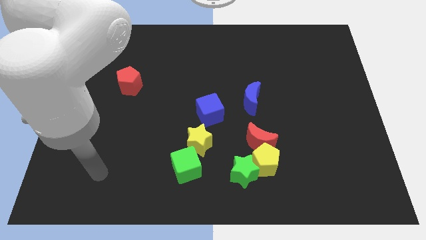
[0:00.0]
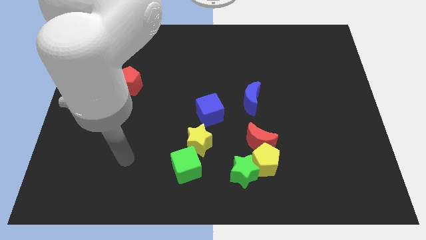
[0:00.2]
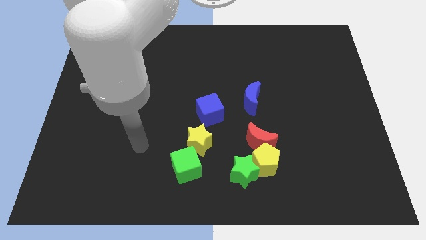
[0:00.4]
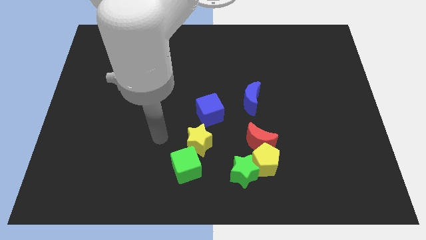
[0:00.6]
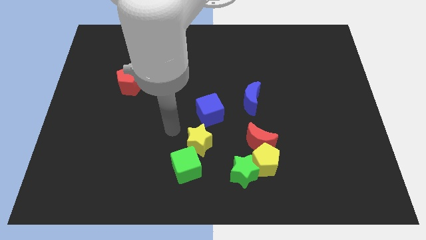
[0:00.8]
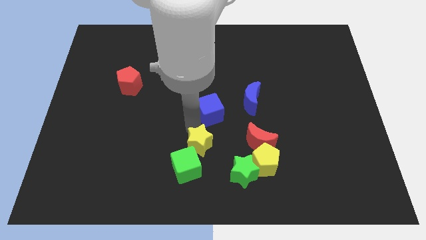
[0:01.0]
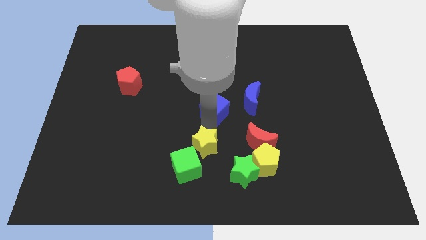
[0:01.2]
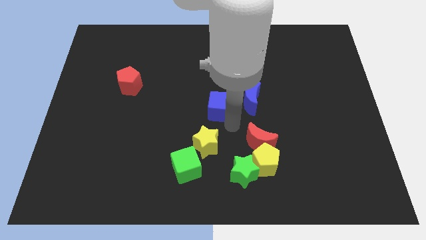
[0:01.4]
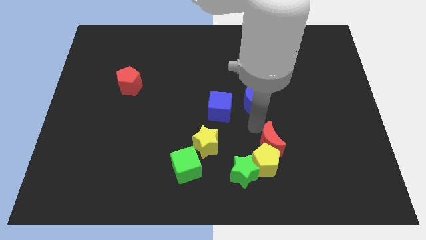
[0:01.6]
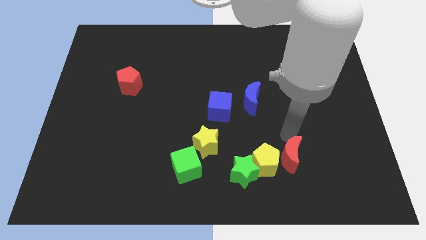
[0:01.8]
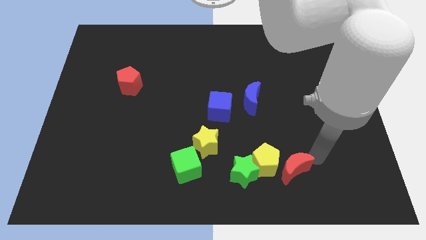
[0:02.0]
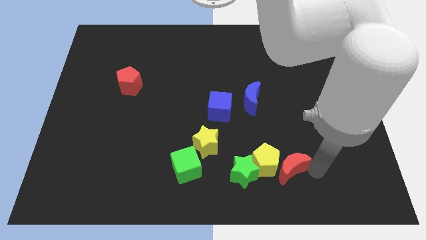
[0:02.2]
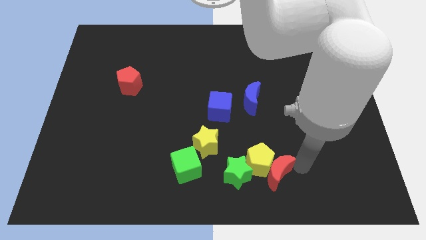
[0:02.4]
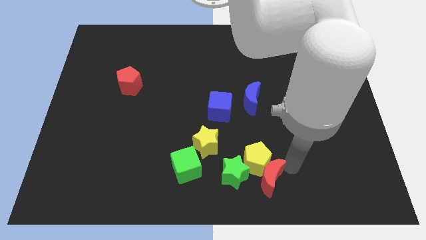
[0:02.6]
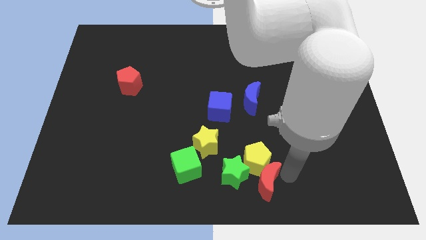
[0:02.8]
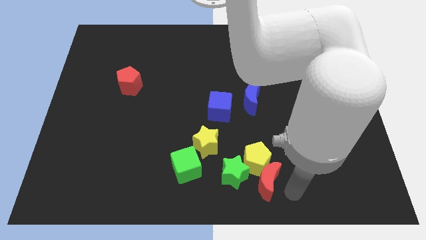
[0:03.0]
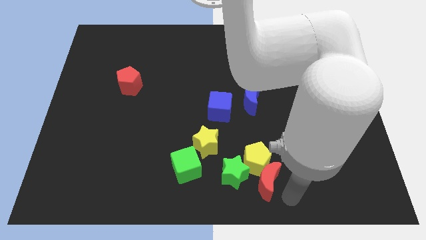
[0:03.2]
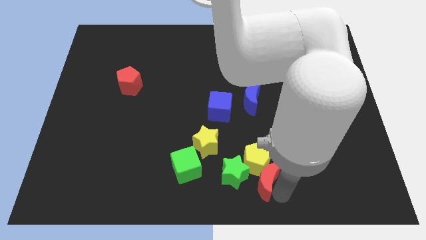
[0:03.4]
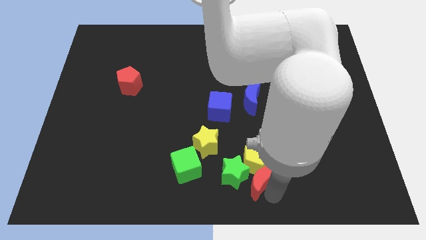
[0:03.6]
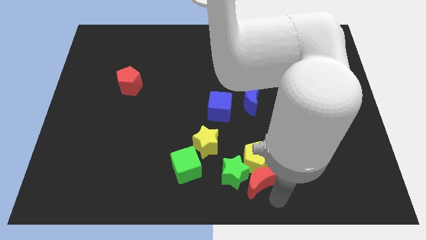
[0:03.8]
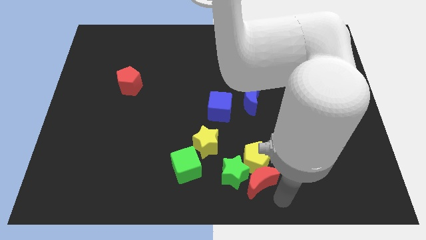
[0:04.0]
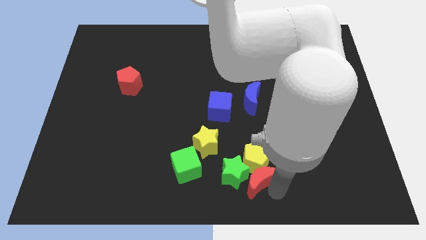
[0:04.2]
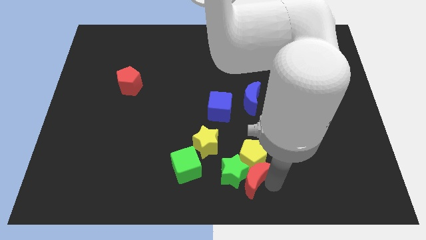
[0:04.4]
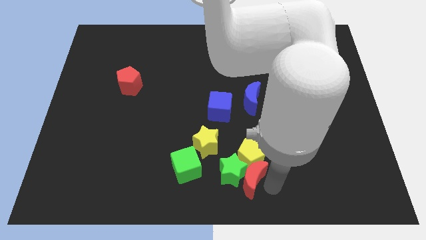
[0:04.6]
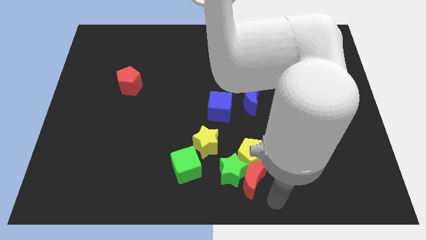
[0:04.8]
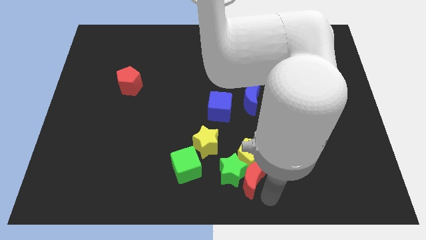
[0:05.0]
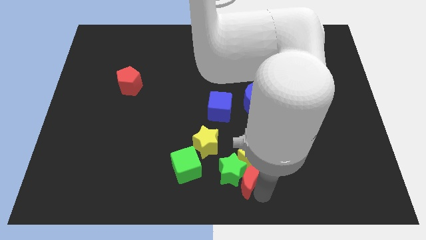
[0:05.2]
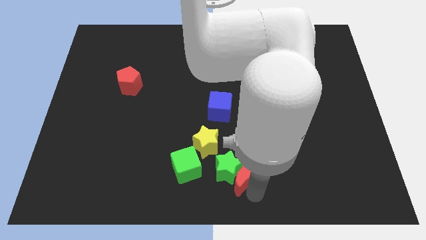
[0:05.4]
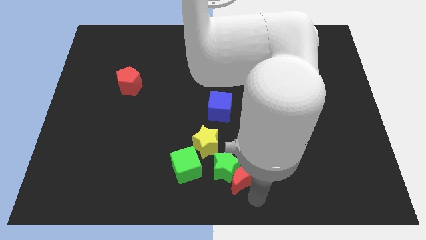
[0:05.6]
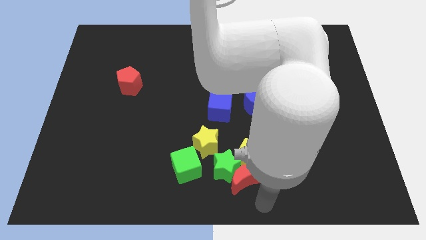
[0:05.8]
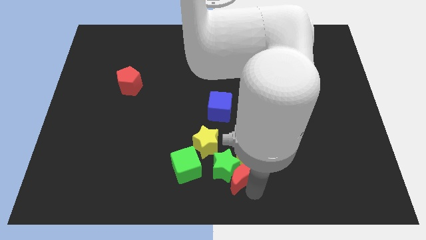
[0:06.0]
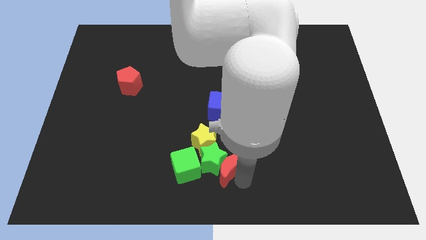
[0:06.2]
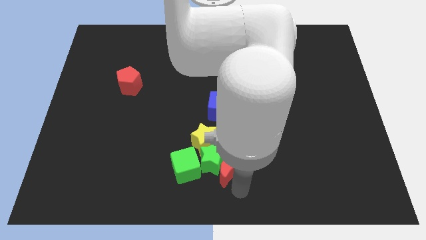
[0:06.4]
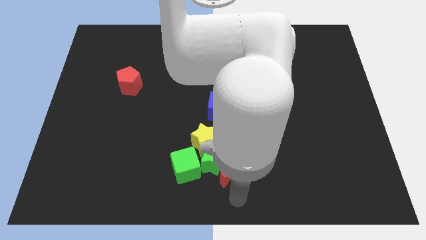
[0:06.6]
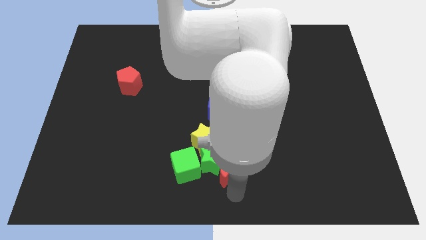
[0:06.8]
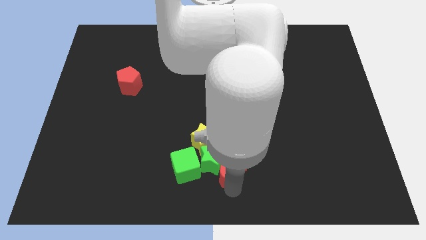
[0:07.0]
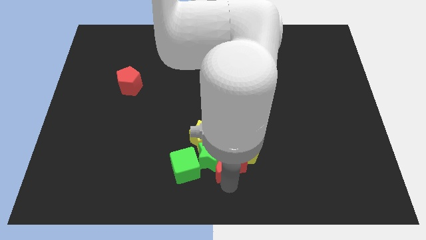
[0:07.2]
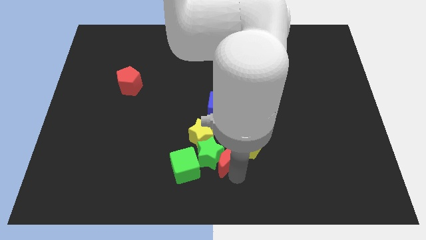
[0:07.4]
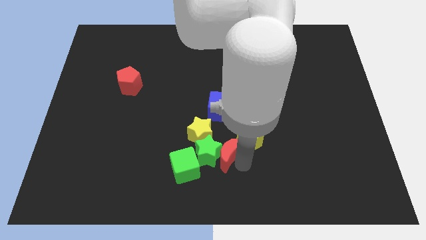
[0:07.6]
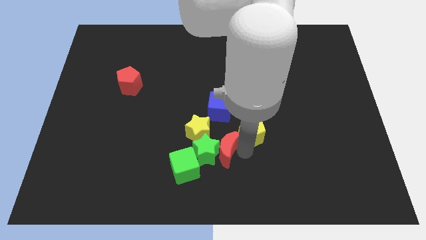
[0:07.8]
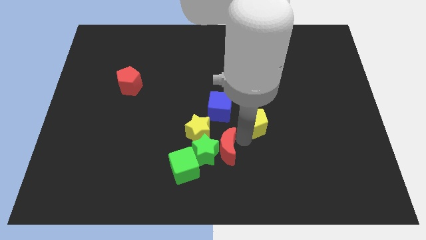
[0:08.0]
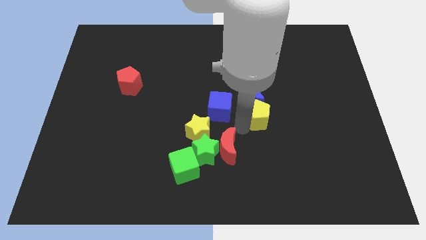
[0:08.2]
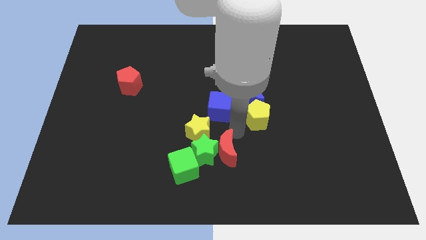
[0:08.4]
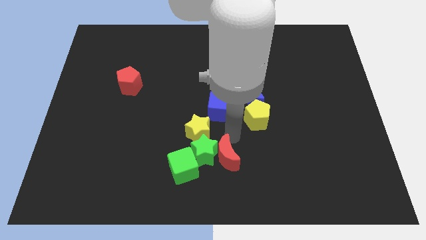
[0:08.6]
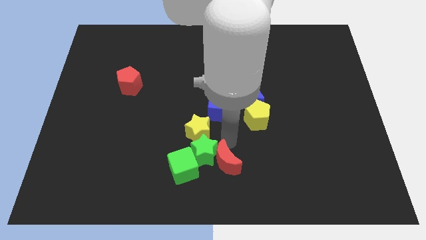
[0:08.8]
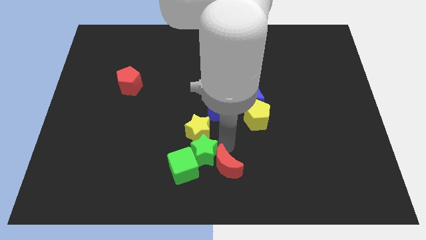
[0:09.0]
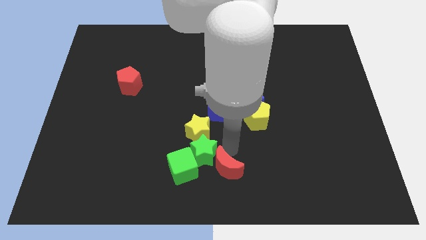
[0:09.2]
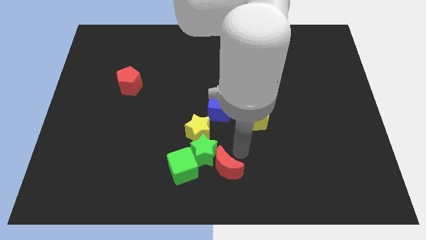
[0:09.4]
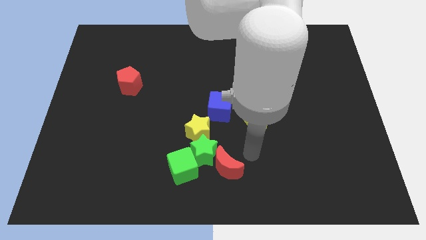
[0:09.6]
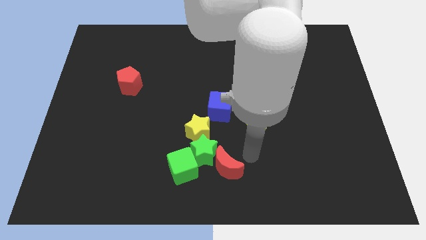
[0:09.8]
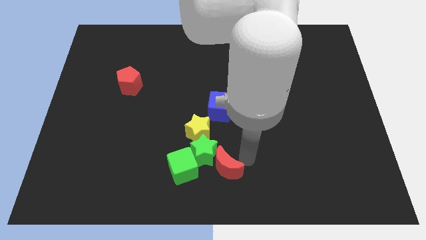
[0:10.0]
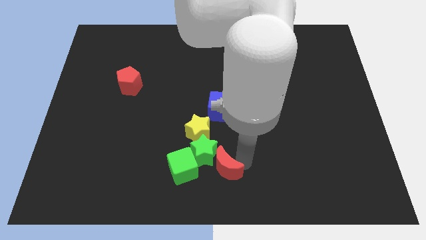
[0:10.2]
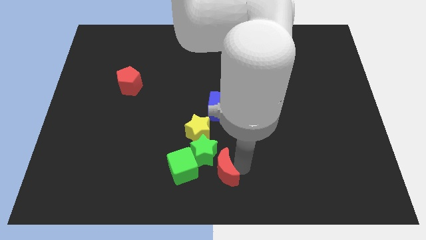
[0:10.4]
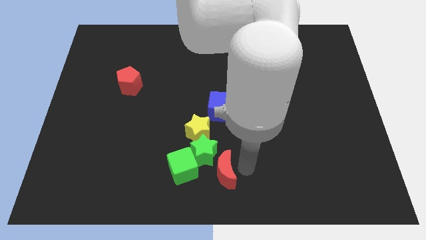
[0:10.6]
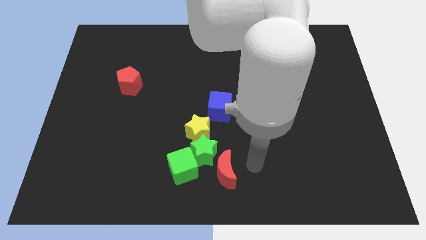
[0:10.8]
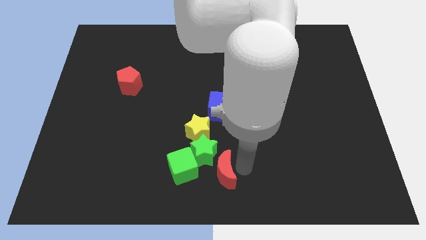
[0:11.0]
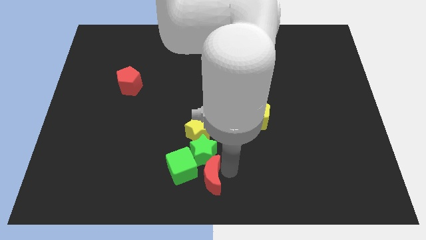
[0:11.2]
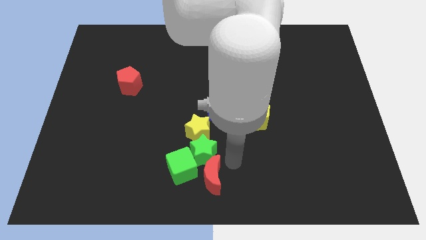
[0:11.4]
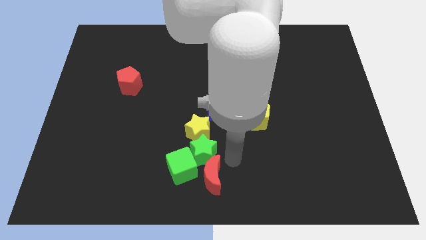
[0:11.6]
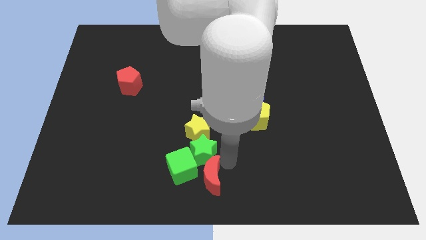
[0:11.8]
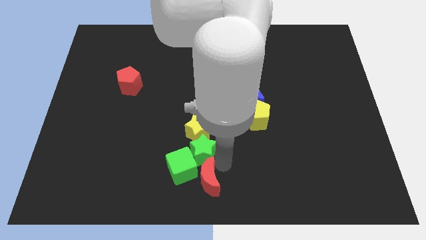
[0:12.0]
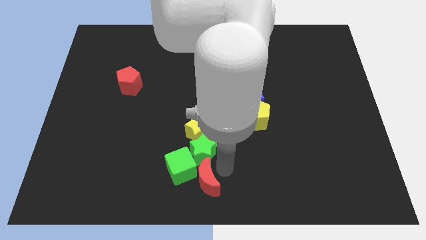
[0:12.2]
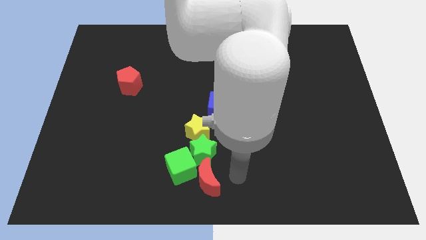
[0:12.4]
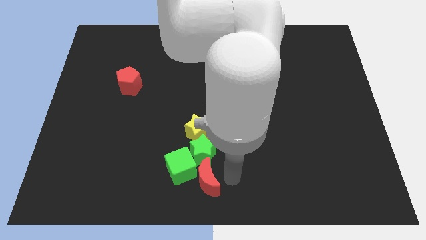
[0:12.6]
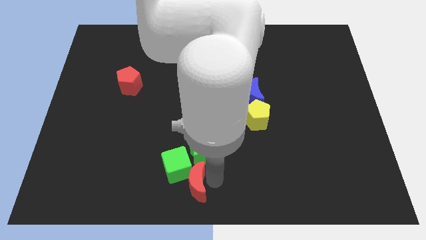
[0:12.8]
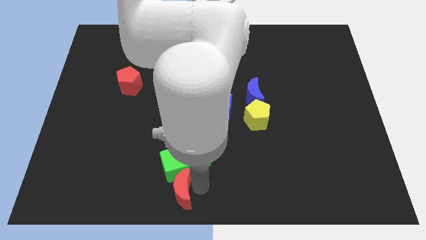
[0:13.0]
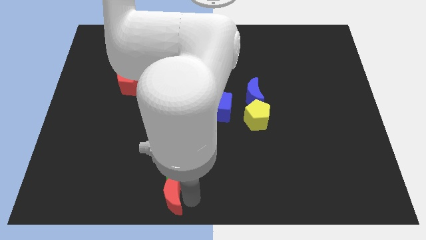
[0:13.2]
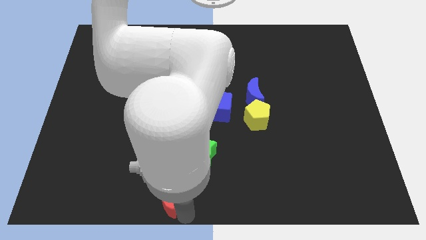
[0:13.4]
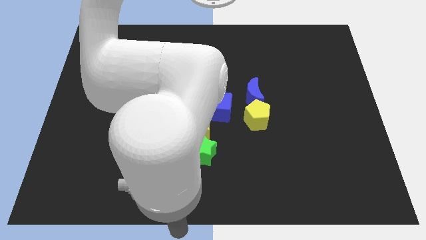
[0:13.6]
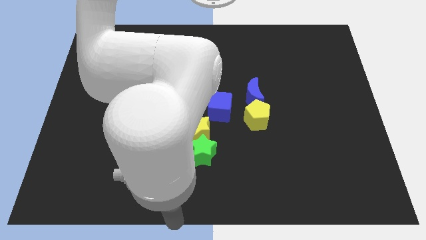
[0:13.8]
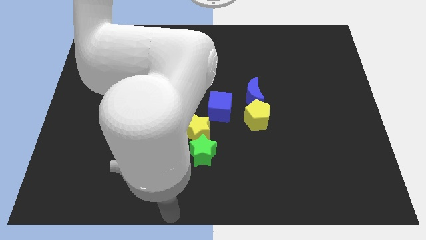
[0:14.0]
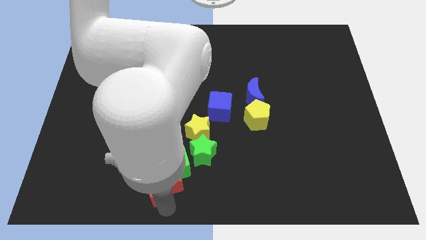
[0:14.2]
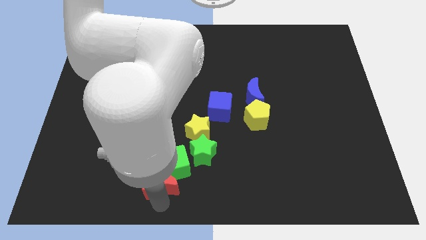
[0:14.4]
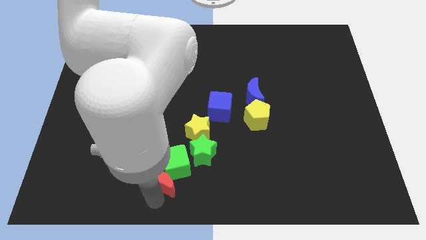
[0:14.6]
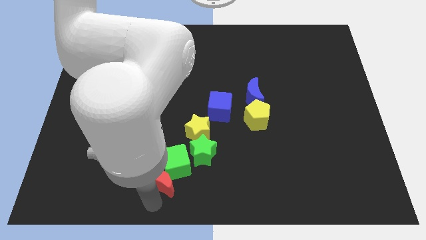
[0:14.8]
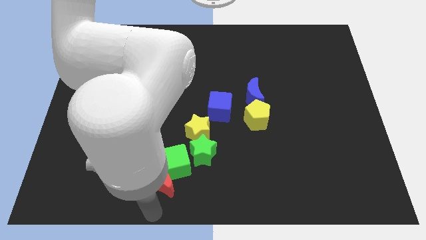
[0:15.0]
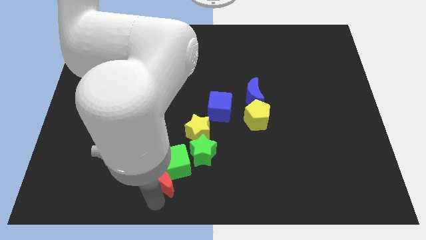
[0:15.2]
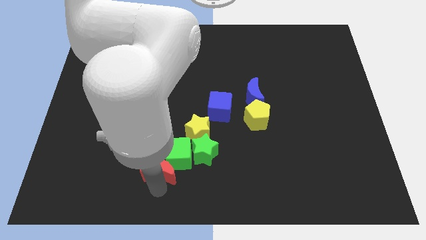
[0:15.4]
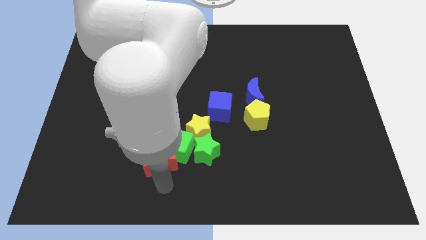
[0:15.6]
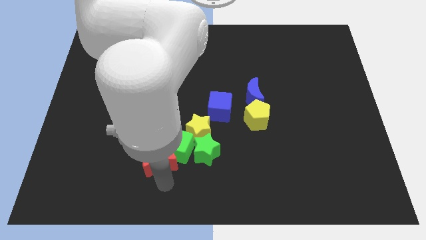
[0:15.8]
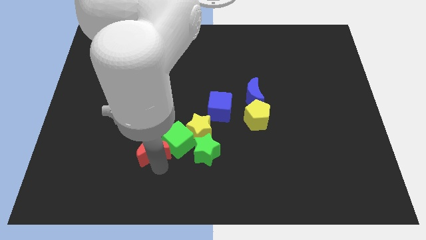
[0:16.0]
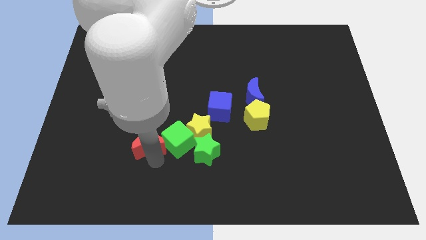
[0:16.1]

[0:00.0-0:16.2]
put the red moon to the left side of the yellow star
